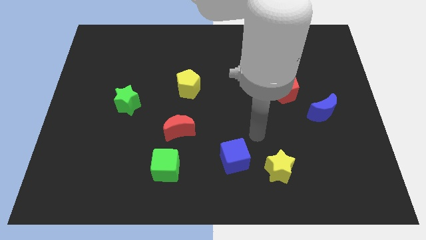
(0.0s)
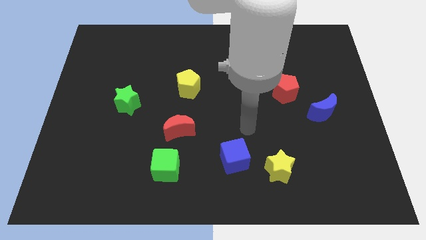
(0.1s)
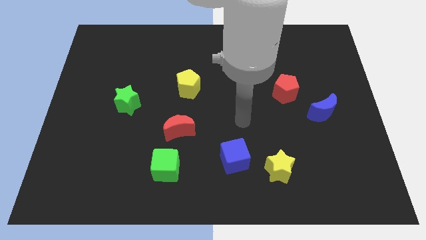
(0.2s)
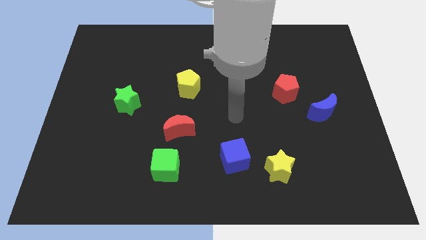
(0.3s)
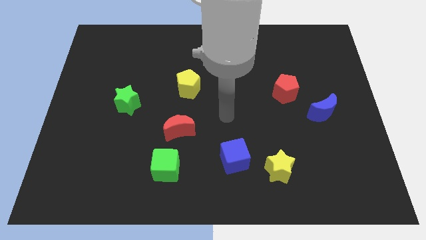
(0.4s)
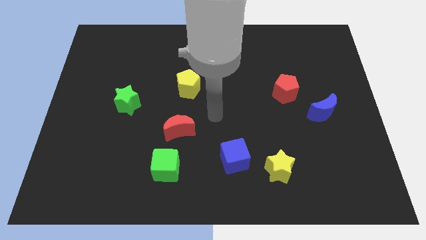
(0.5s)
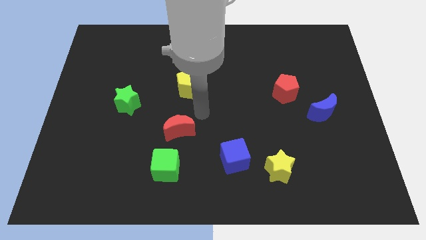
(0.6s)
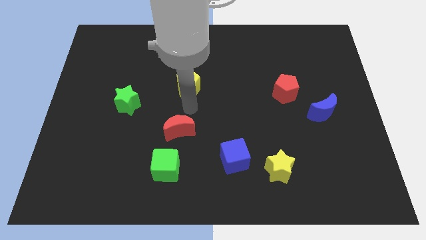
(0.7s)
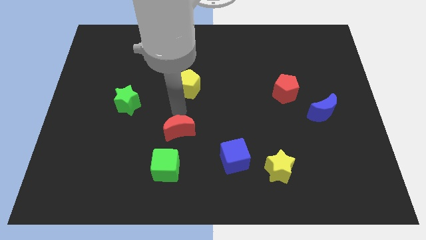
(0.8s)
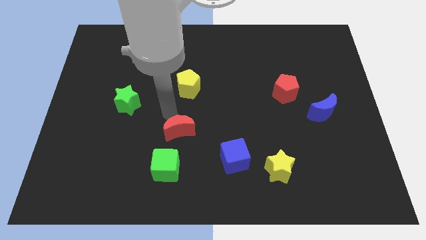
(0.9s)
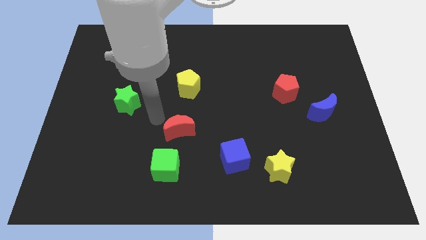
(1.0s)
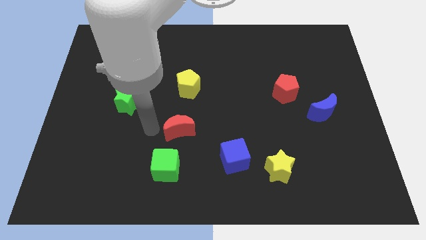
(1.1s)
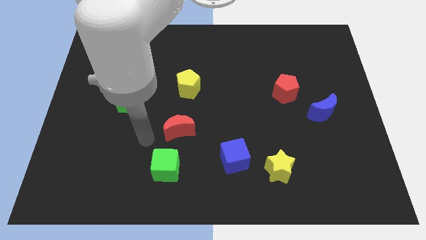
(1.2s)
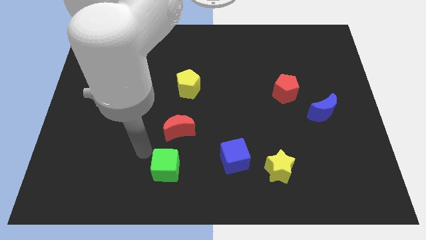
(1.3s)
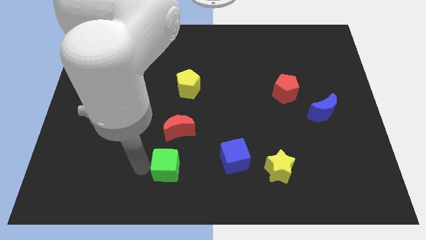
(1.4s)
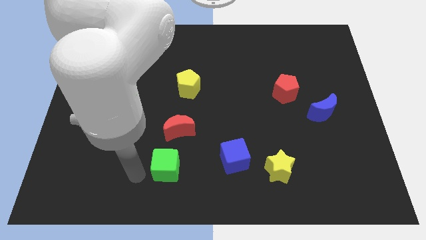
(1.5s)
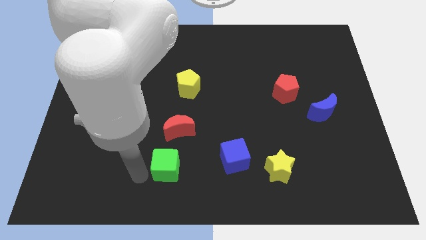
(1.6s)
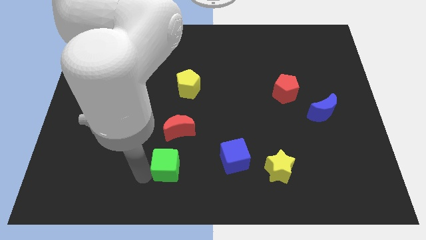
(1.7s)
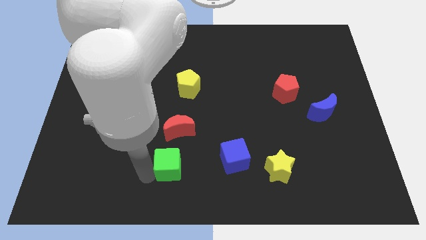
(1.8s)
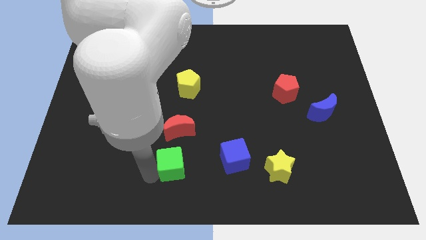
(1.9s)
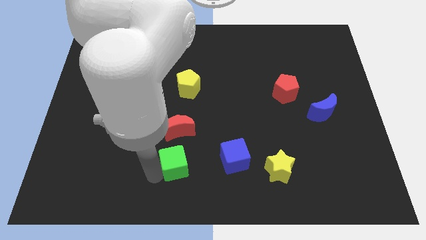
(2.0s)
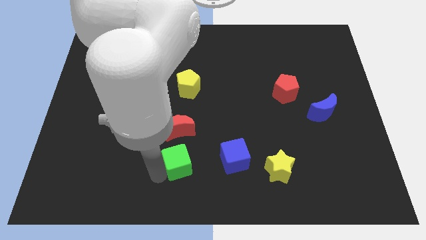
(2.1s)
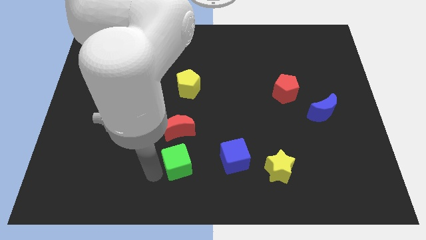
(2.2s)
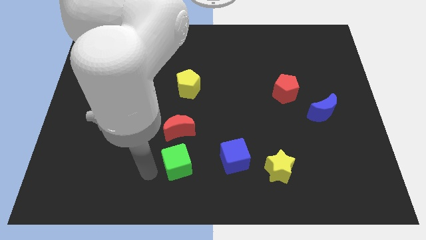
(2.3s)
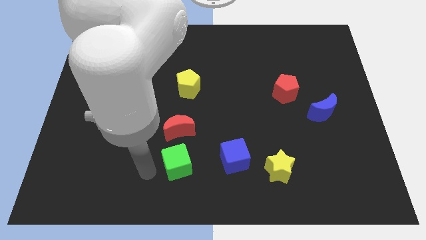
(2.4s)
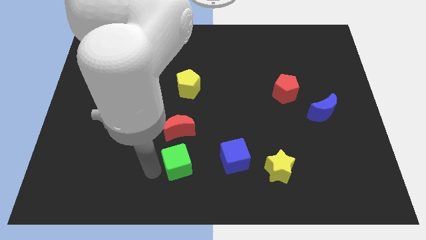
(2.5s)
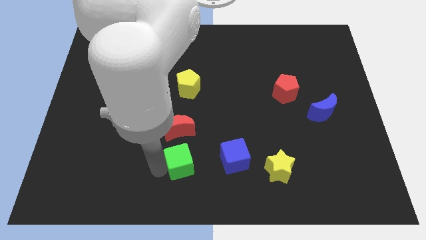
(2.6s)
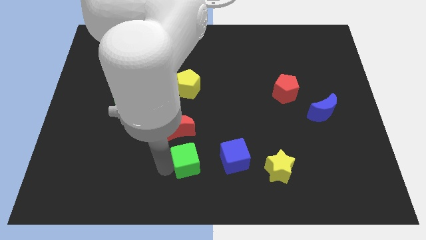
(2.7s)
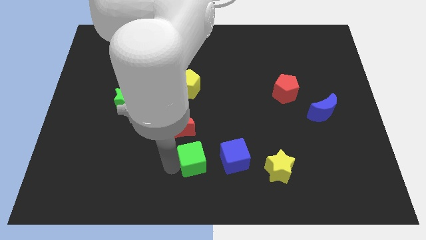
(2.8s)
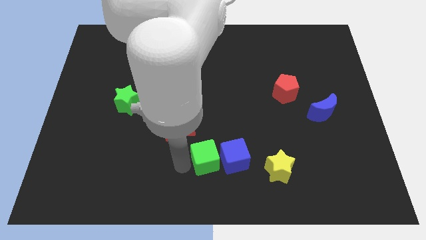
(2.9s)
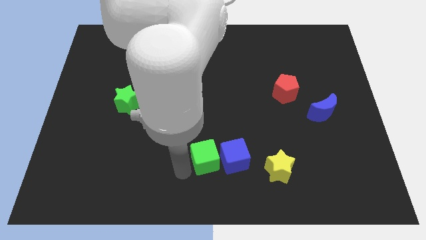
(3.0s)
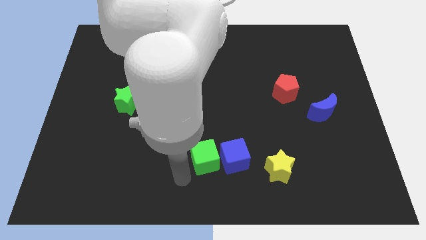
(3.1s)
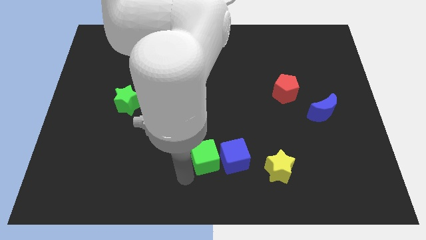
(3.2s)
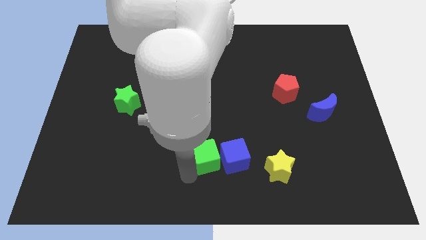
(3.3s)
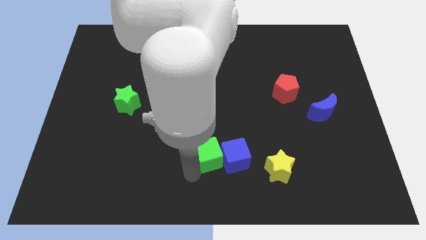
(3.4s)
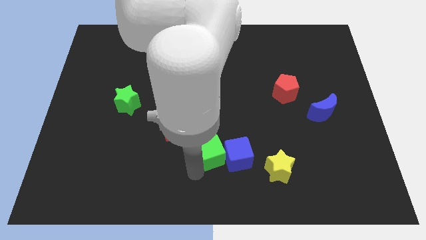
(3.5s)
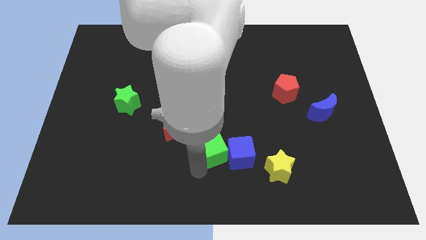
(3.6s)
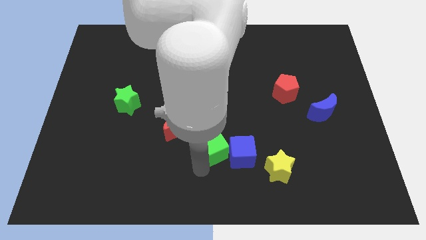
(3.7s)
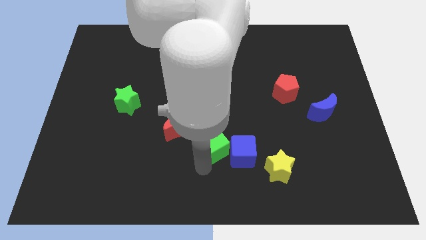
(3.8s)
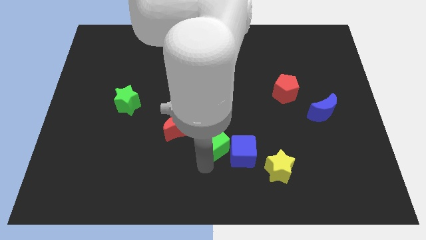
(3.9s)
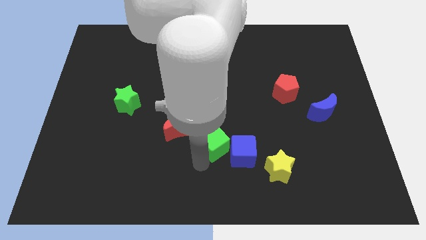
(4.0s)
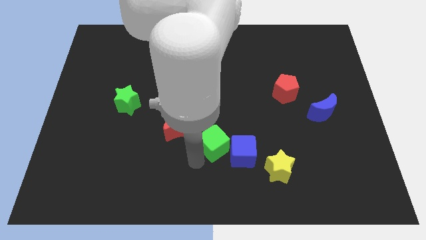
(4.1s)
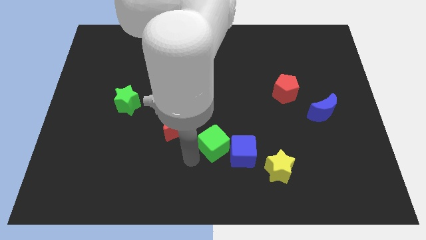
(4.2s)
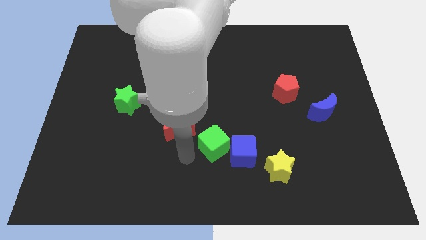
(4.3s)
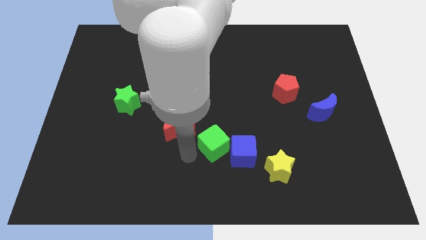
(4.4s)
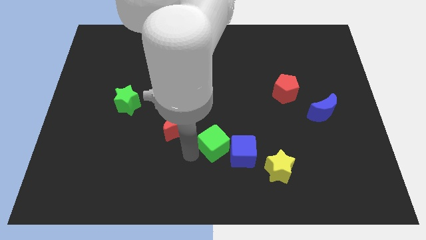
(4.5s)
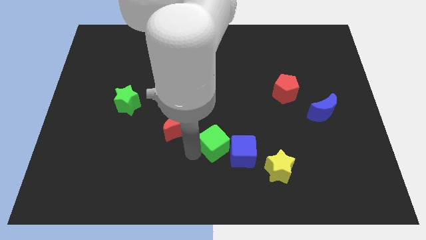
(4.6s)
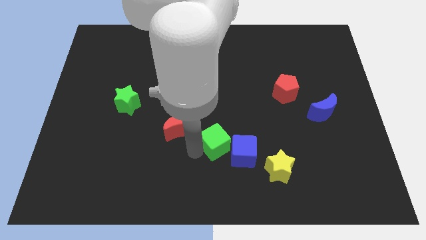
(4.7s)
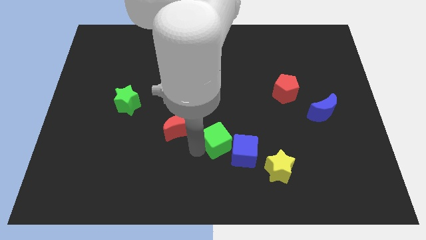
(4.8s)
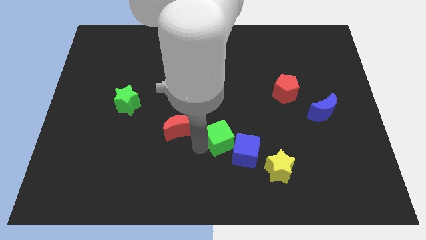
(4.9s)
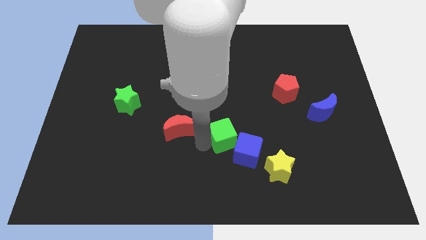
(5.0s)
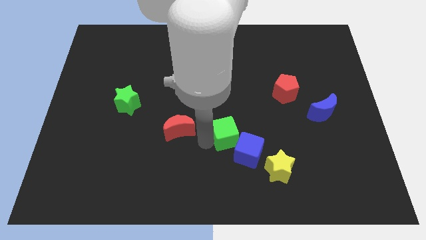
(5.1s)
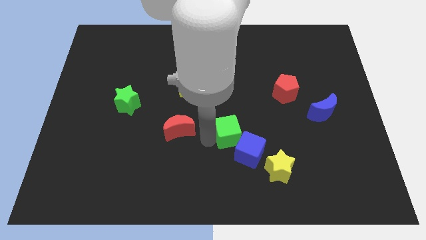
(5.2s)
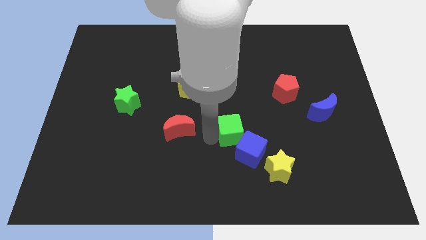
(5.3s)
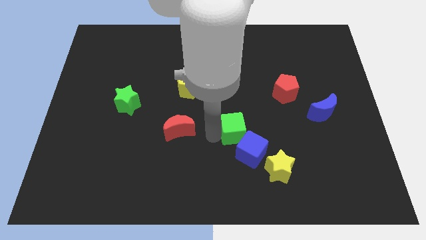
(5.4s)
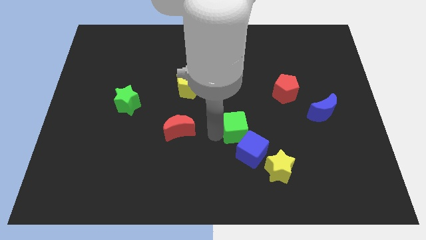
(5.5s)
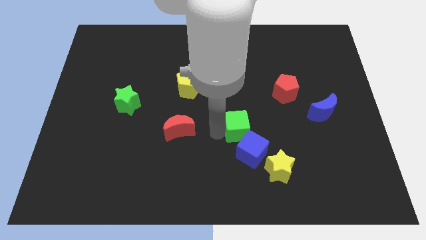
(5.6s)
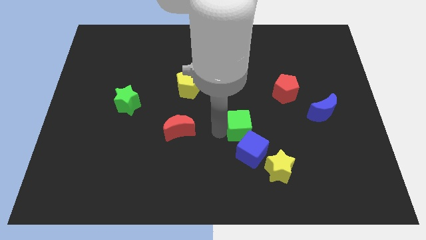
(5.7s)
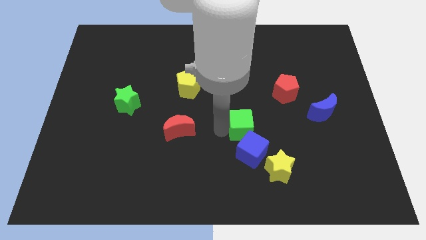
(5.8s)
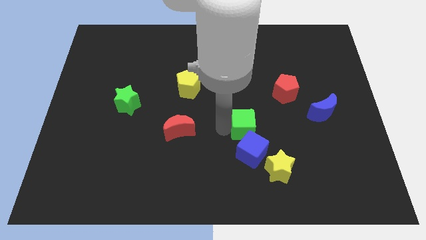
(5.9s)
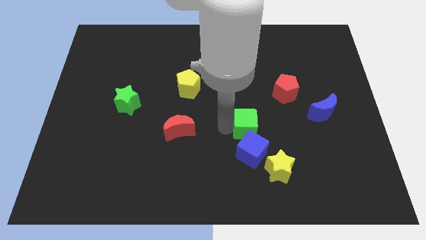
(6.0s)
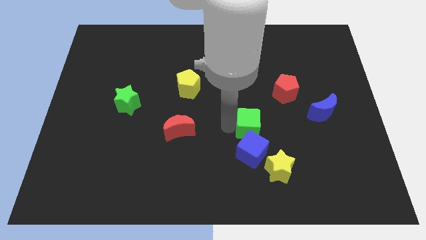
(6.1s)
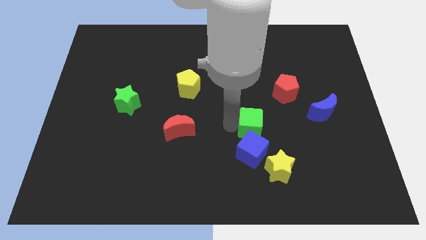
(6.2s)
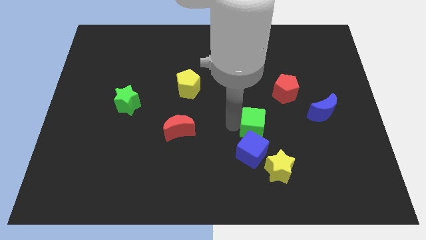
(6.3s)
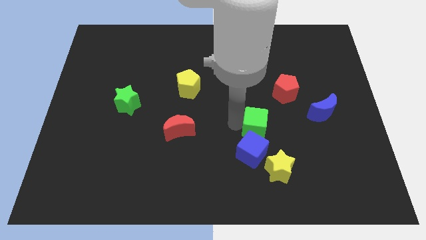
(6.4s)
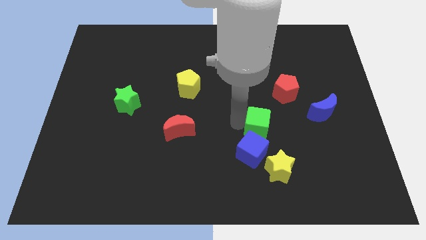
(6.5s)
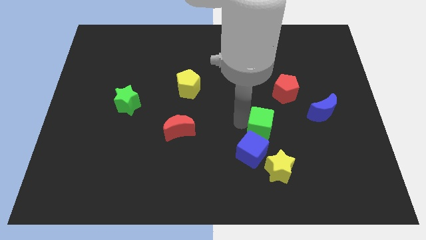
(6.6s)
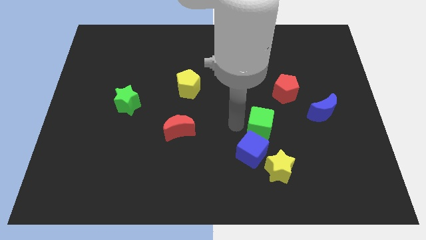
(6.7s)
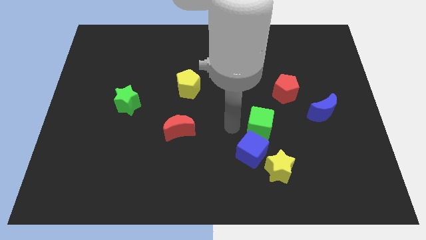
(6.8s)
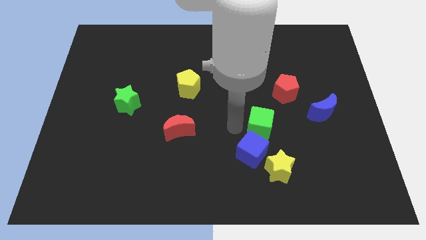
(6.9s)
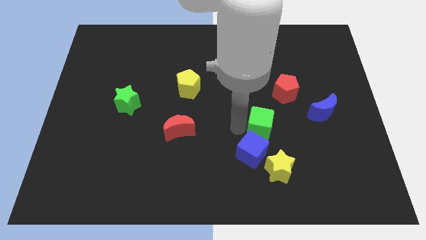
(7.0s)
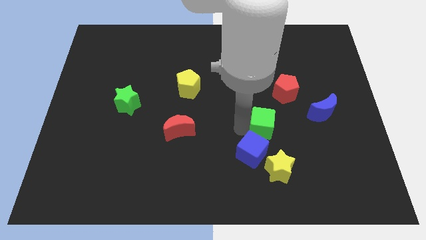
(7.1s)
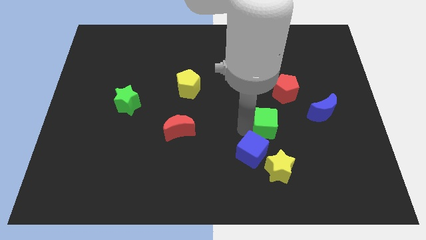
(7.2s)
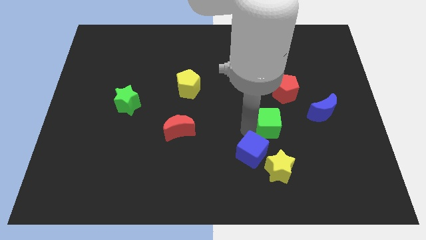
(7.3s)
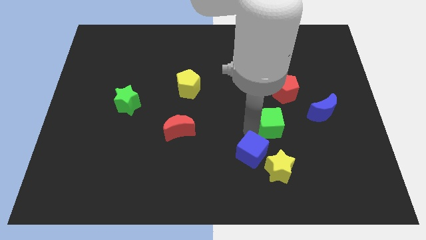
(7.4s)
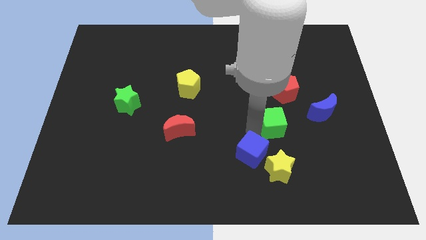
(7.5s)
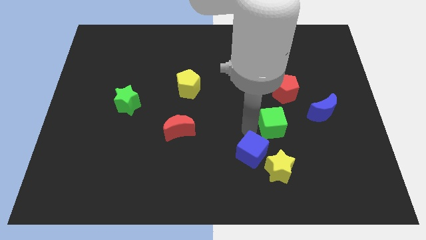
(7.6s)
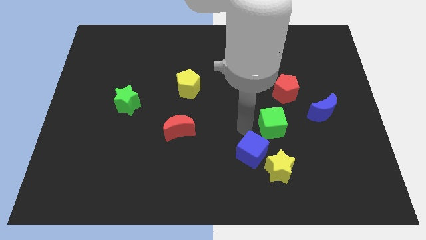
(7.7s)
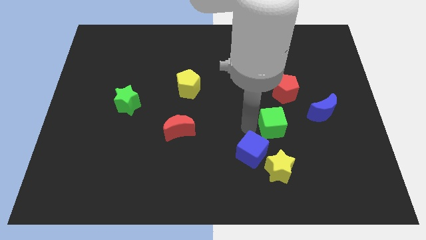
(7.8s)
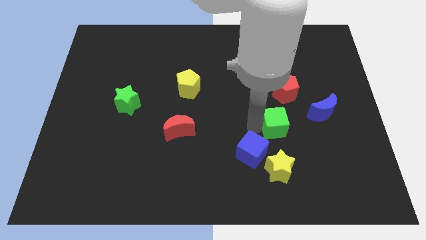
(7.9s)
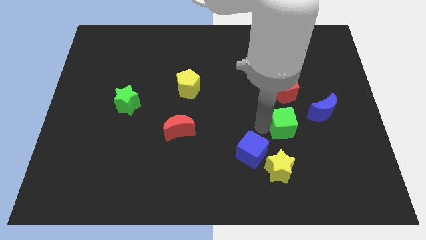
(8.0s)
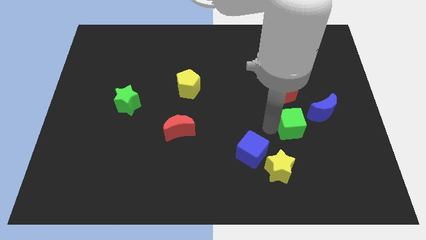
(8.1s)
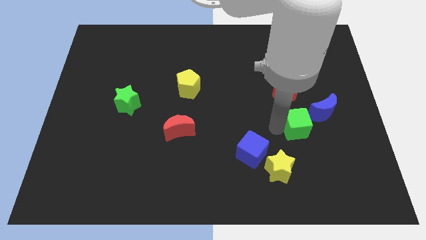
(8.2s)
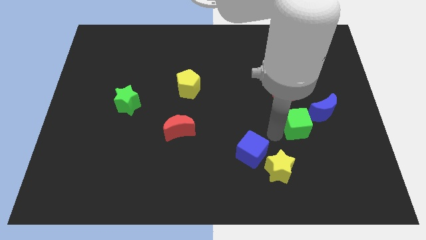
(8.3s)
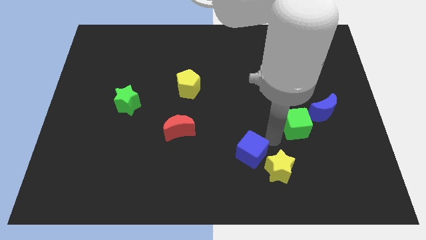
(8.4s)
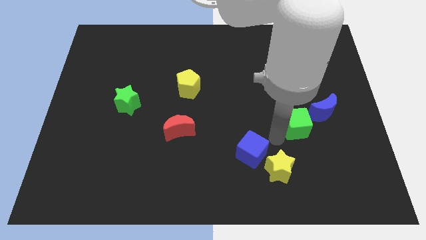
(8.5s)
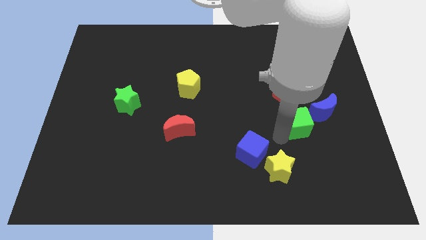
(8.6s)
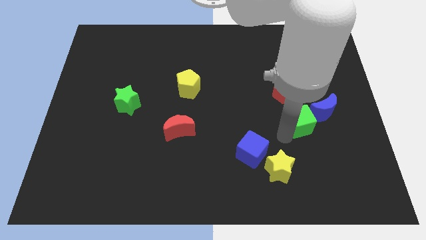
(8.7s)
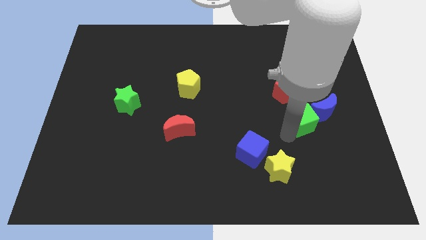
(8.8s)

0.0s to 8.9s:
slide the green cube close to the blue moon
